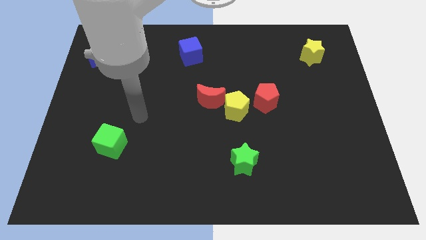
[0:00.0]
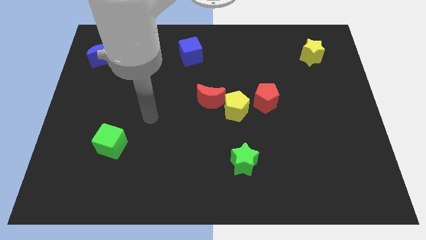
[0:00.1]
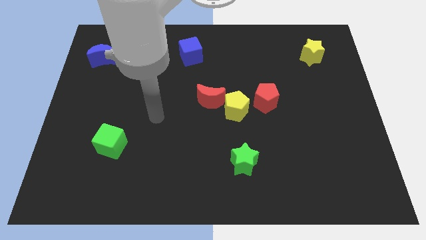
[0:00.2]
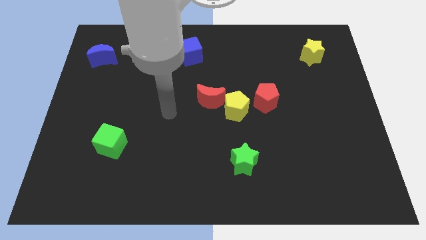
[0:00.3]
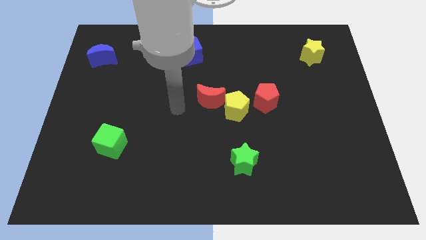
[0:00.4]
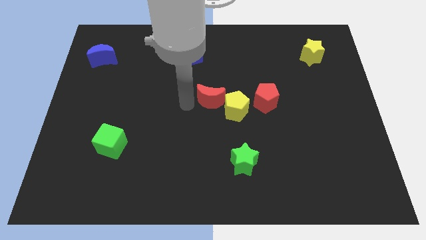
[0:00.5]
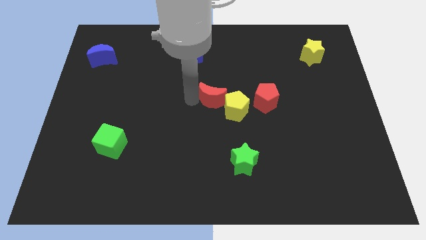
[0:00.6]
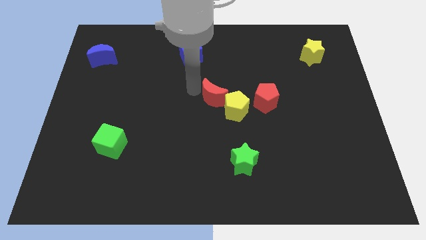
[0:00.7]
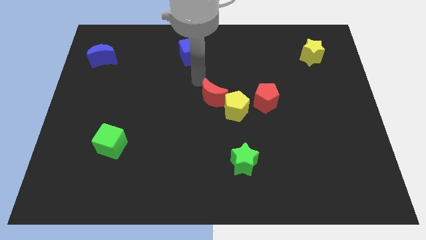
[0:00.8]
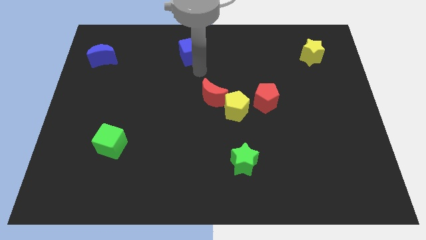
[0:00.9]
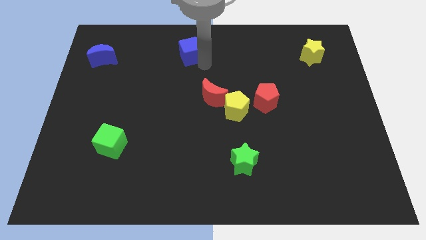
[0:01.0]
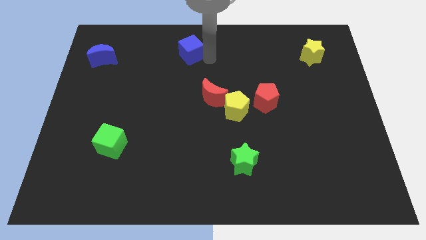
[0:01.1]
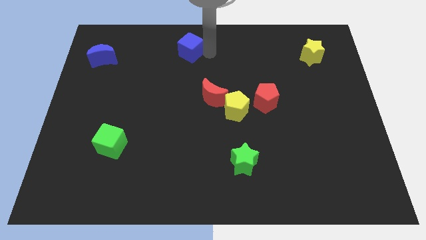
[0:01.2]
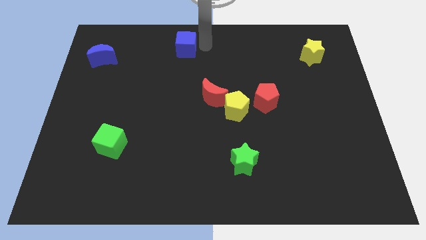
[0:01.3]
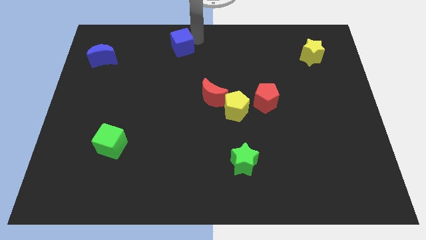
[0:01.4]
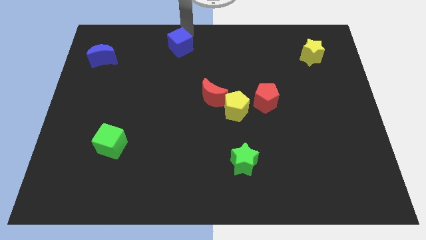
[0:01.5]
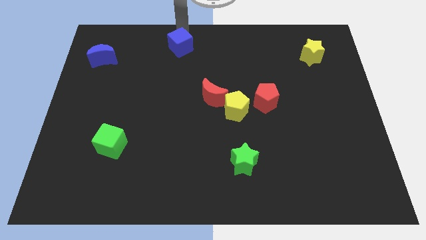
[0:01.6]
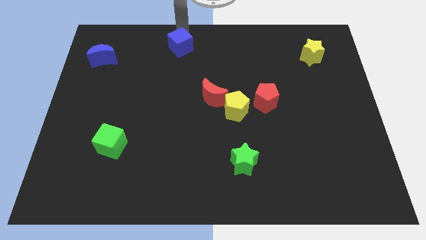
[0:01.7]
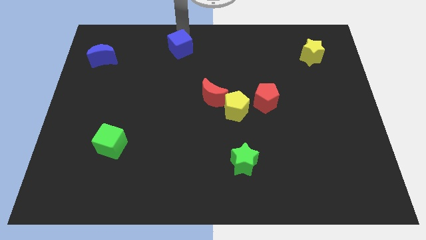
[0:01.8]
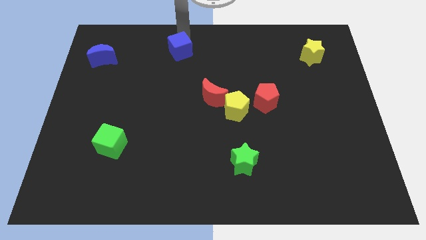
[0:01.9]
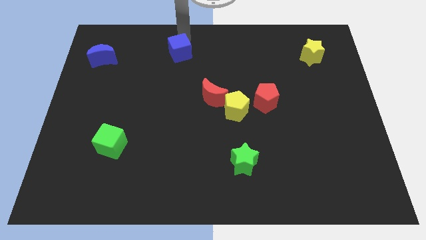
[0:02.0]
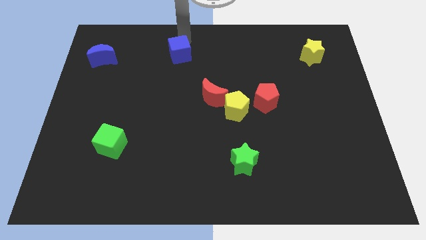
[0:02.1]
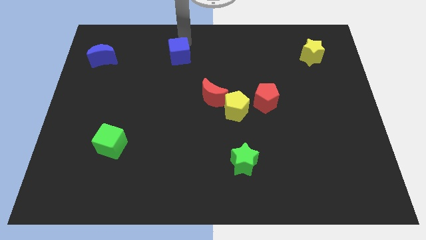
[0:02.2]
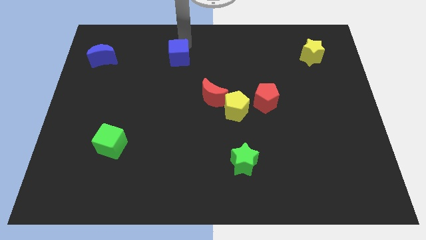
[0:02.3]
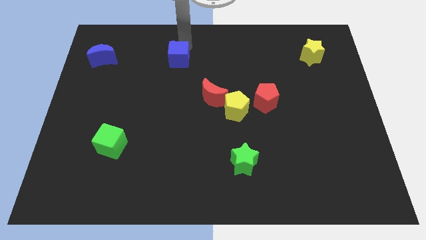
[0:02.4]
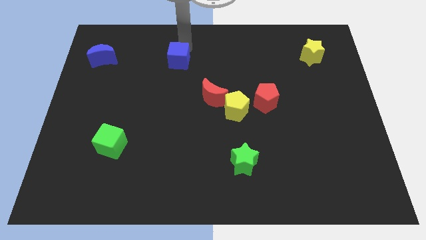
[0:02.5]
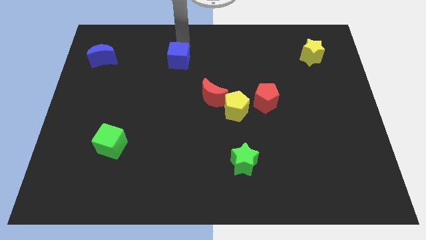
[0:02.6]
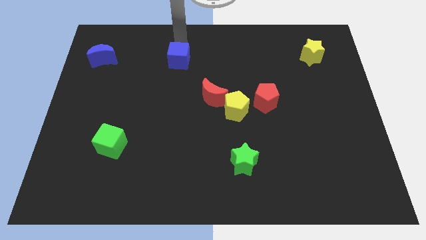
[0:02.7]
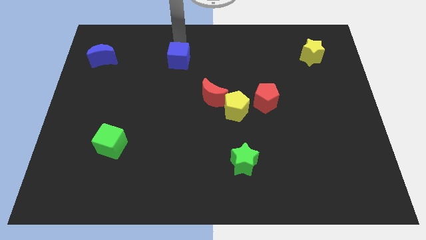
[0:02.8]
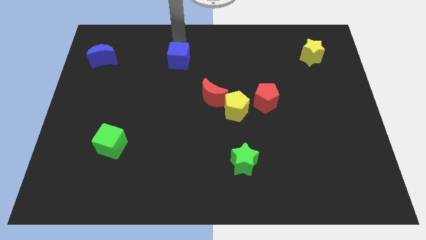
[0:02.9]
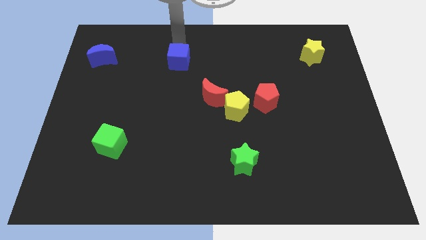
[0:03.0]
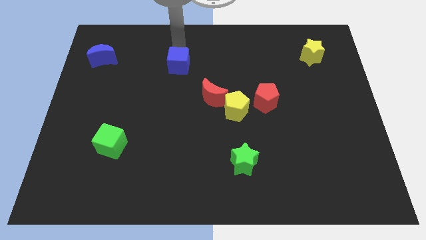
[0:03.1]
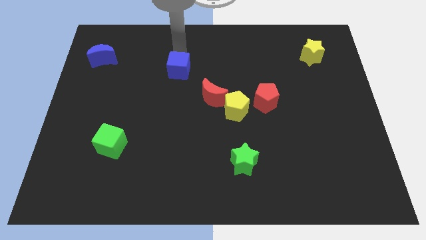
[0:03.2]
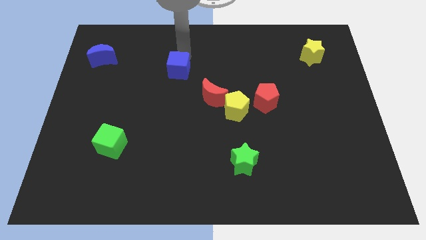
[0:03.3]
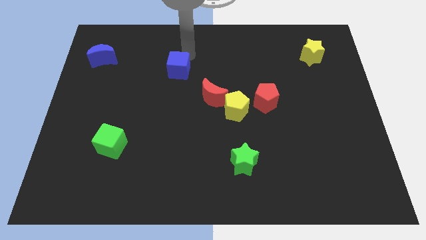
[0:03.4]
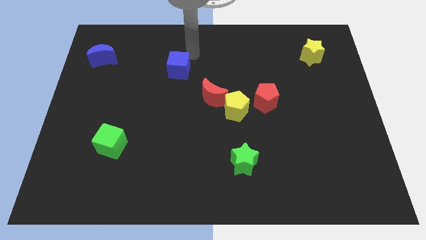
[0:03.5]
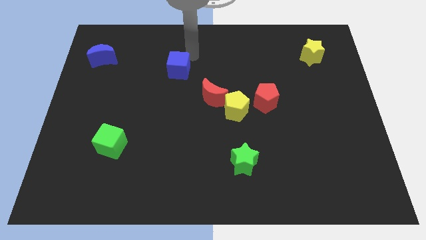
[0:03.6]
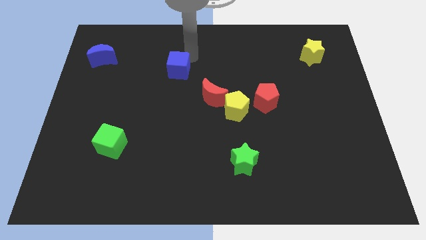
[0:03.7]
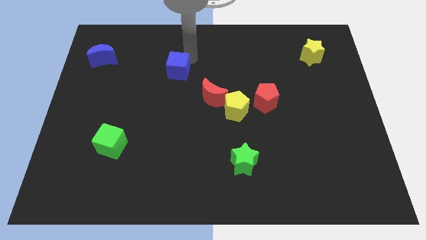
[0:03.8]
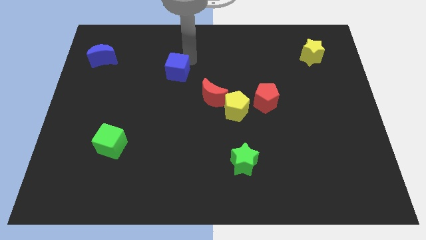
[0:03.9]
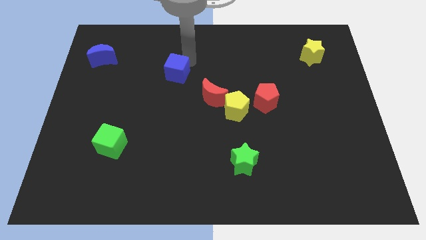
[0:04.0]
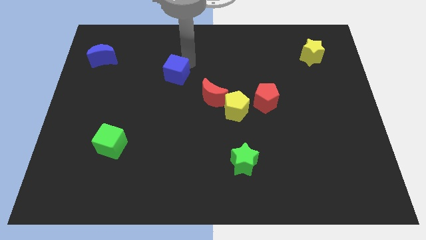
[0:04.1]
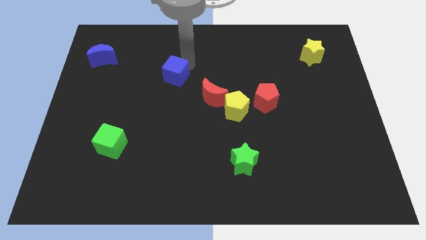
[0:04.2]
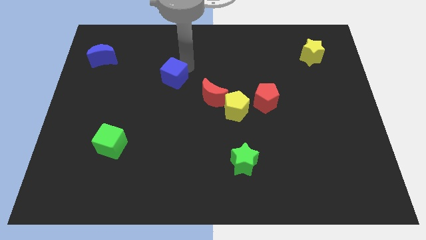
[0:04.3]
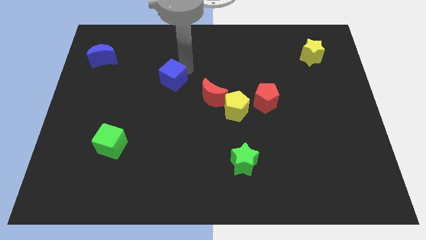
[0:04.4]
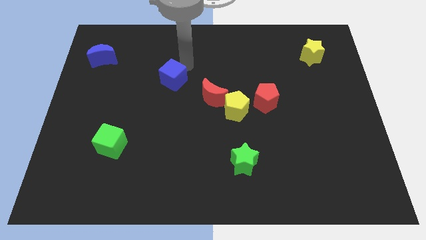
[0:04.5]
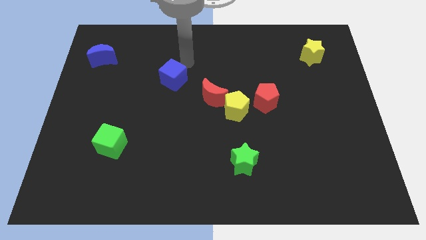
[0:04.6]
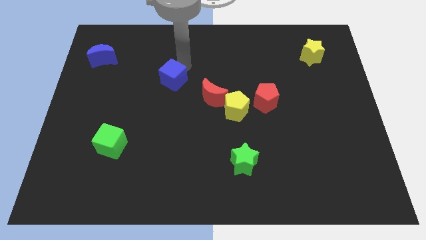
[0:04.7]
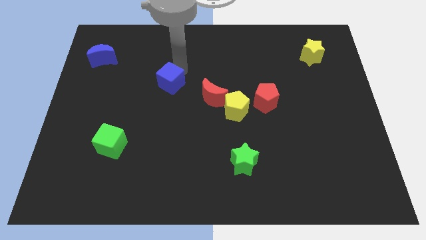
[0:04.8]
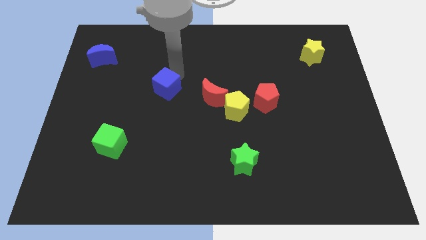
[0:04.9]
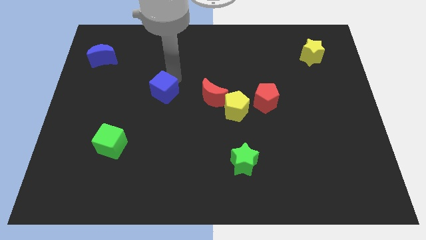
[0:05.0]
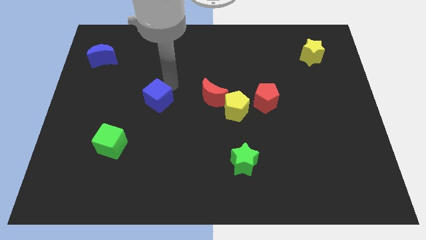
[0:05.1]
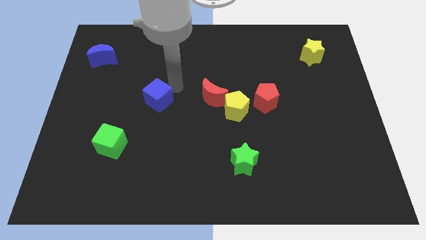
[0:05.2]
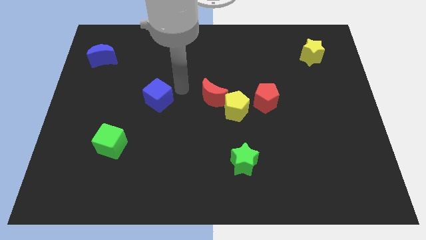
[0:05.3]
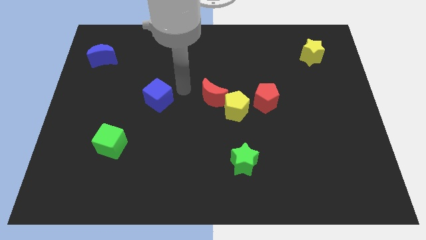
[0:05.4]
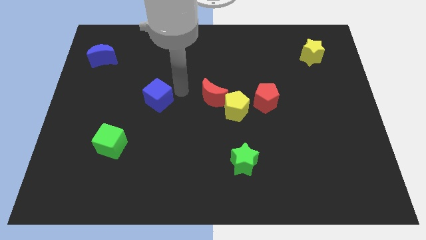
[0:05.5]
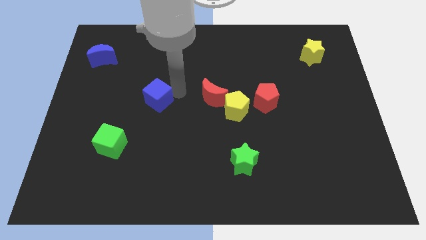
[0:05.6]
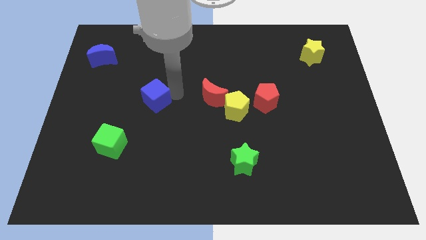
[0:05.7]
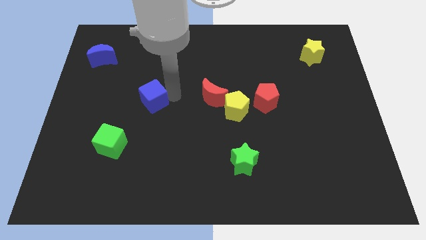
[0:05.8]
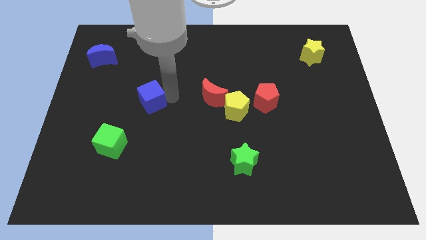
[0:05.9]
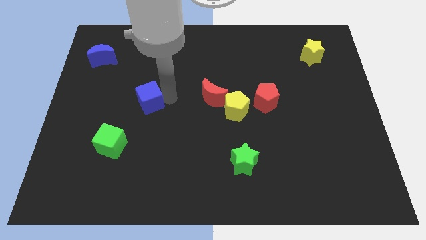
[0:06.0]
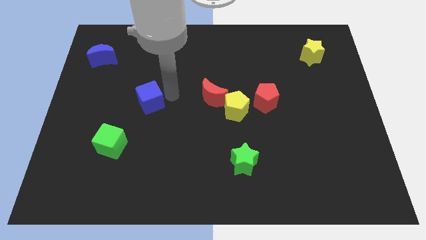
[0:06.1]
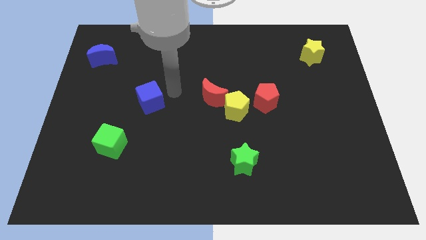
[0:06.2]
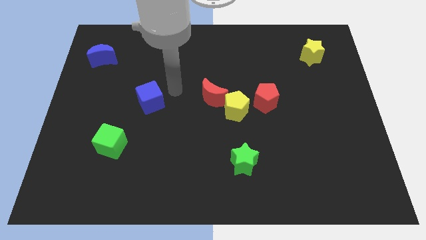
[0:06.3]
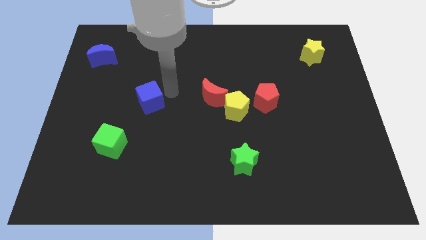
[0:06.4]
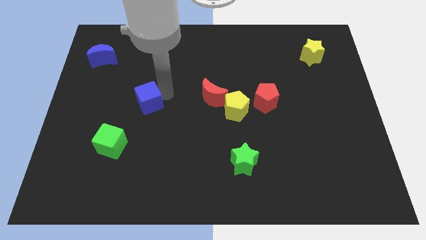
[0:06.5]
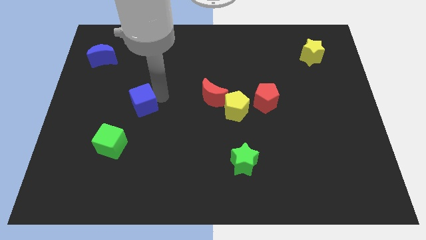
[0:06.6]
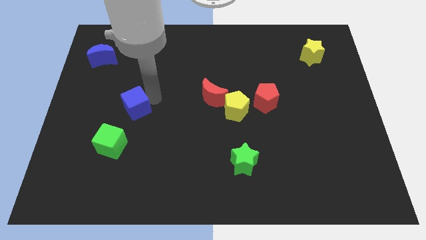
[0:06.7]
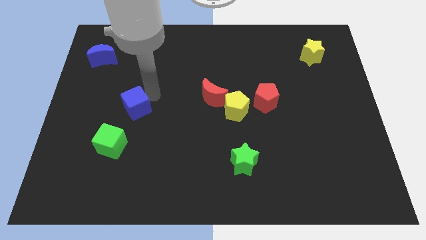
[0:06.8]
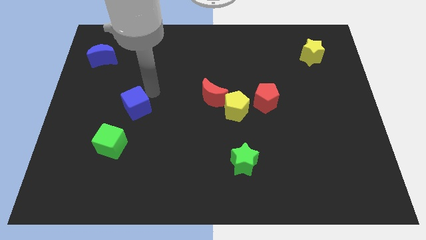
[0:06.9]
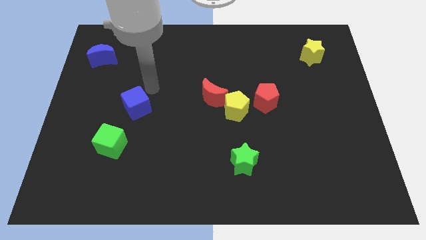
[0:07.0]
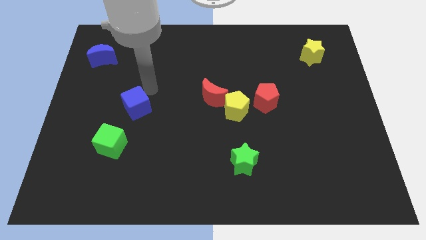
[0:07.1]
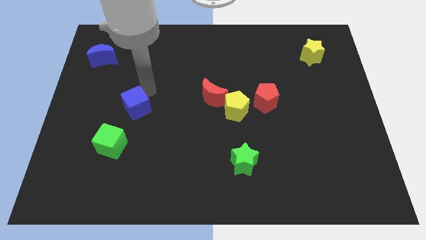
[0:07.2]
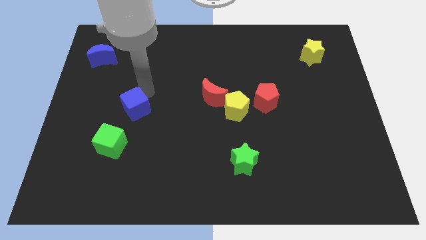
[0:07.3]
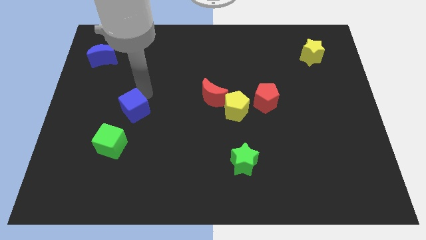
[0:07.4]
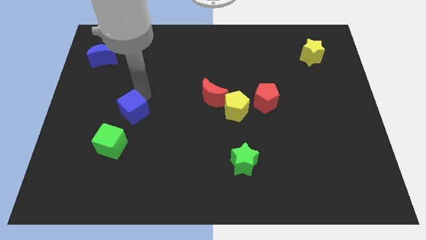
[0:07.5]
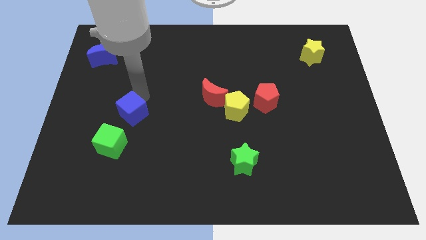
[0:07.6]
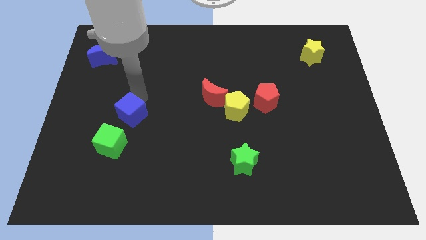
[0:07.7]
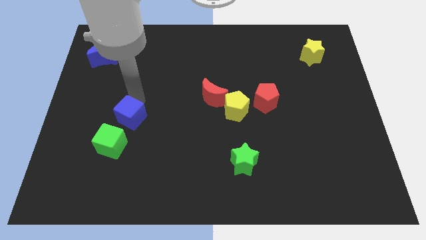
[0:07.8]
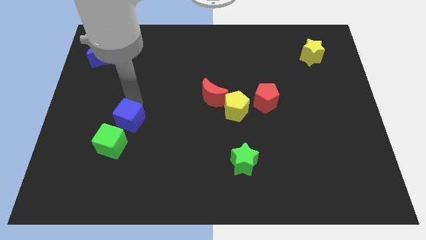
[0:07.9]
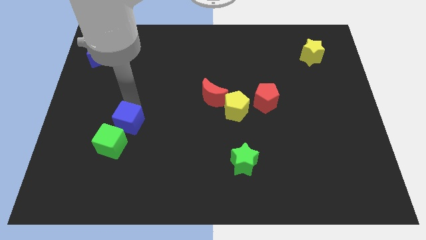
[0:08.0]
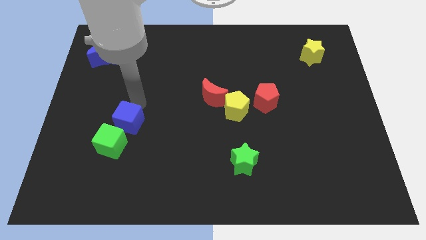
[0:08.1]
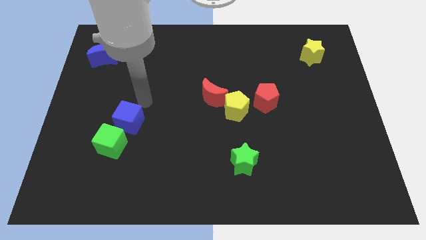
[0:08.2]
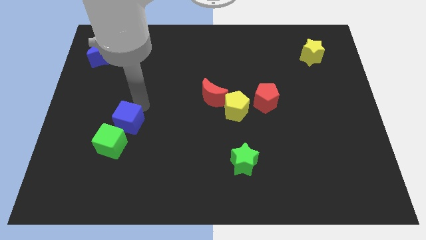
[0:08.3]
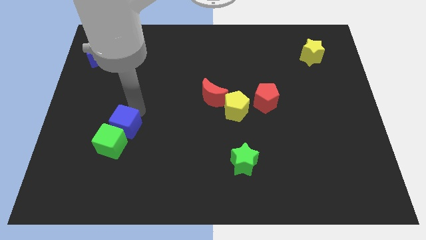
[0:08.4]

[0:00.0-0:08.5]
move the blue cube close to the green cube
